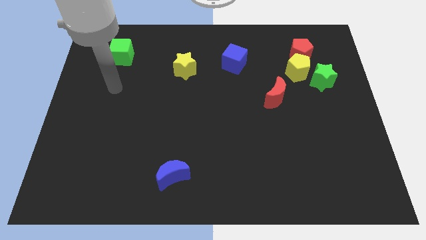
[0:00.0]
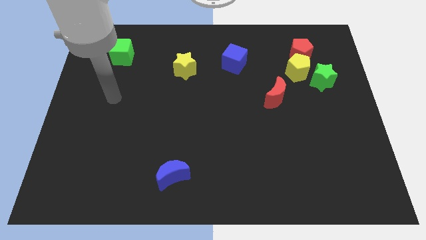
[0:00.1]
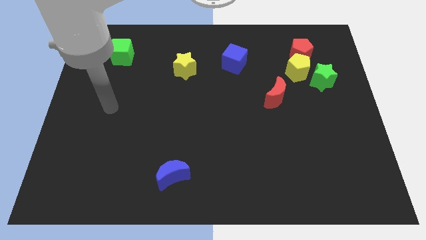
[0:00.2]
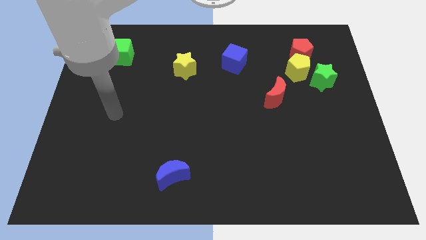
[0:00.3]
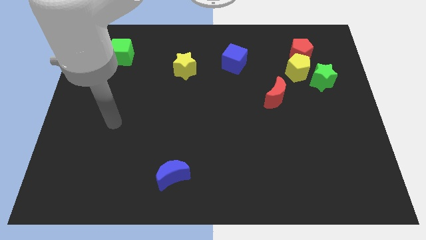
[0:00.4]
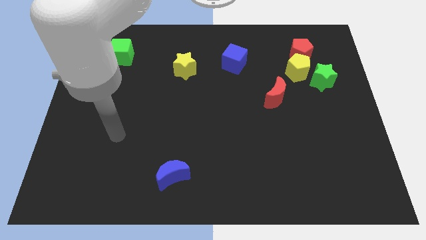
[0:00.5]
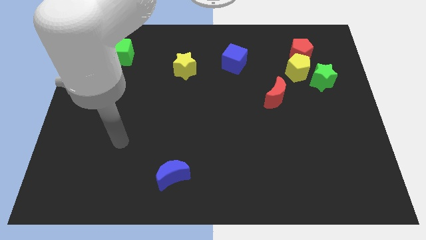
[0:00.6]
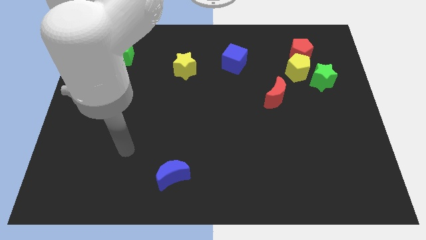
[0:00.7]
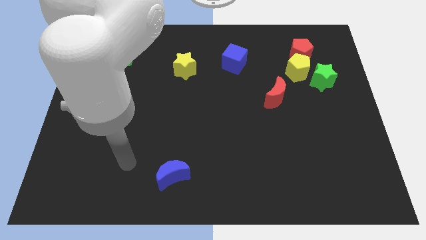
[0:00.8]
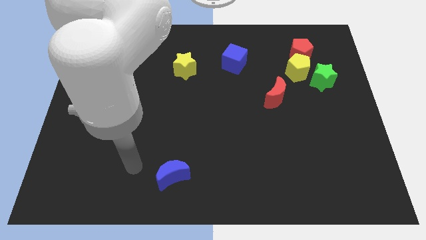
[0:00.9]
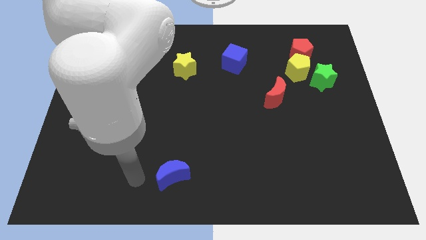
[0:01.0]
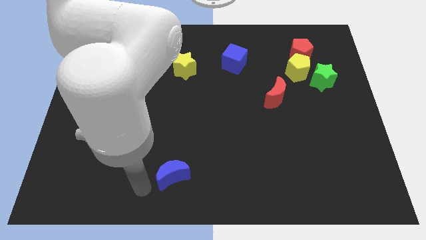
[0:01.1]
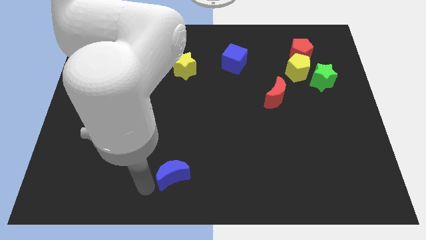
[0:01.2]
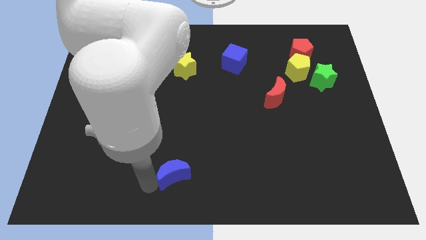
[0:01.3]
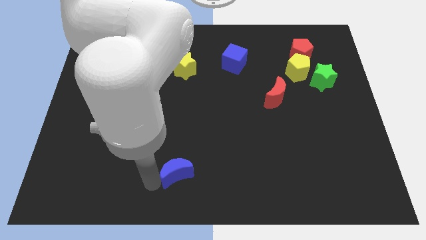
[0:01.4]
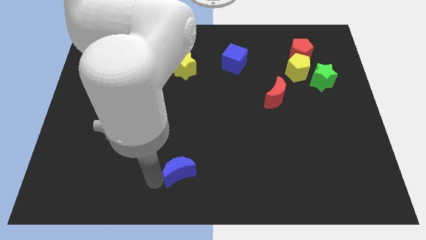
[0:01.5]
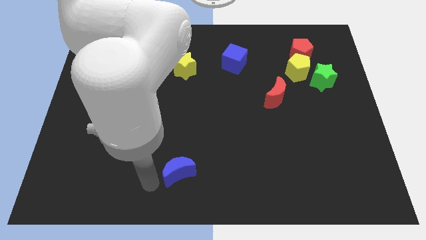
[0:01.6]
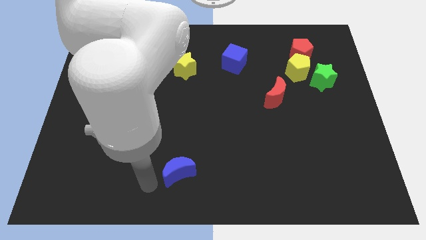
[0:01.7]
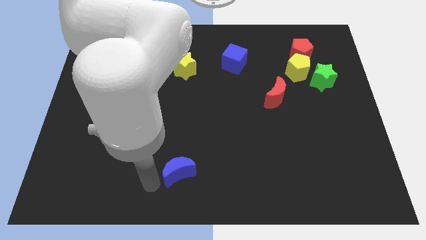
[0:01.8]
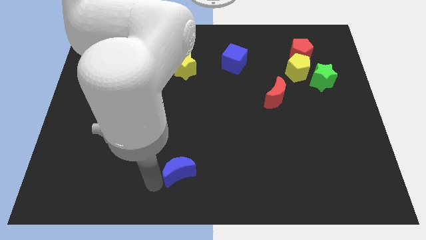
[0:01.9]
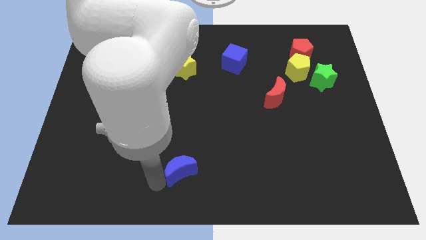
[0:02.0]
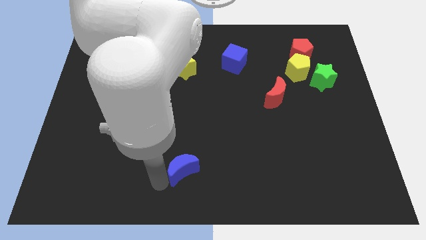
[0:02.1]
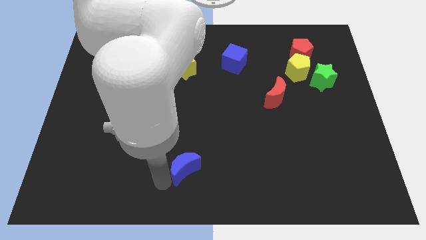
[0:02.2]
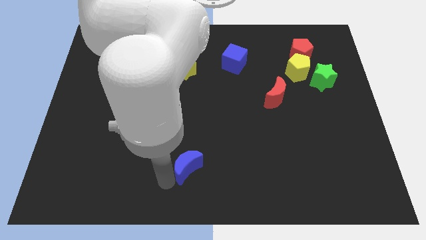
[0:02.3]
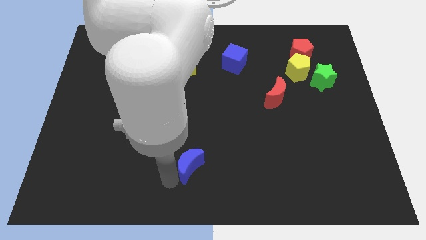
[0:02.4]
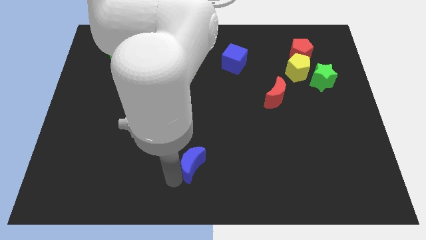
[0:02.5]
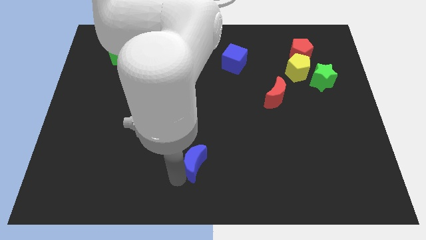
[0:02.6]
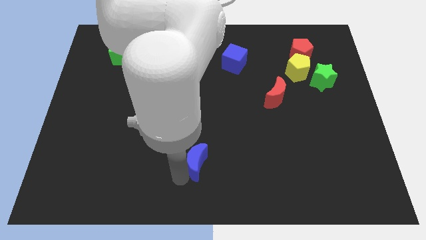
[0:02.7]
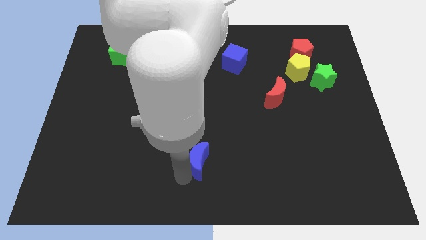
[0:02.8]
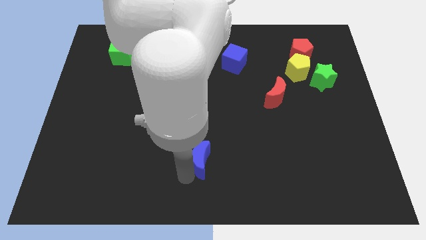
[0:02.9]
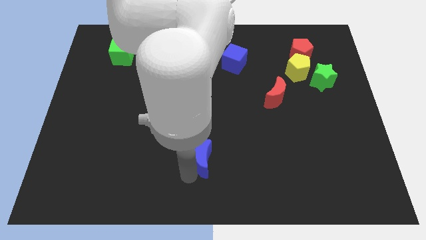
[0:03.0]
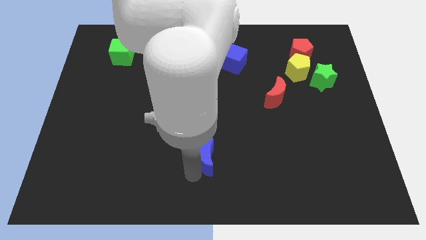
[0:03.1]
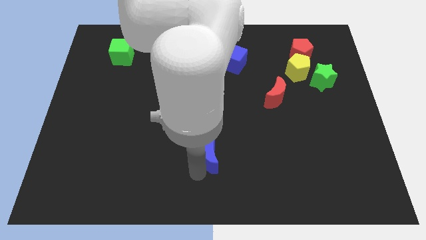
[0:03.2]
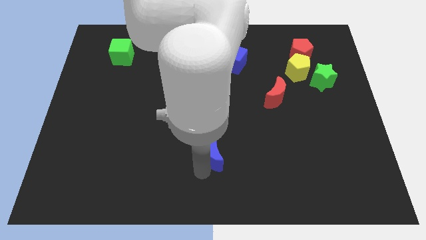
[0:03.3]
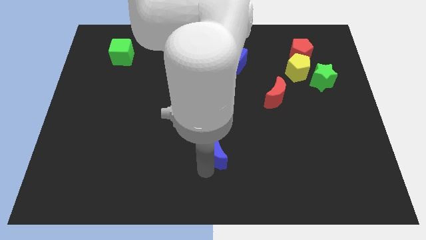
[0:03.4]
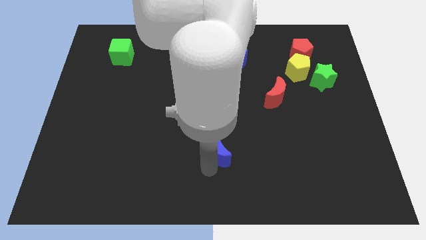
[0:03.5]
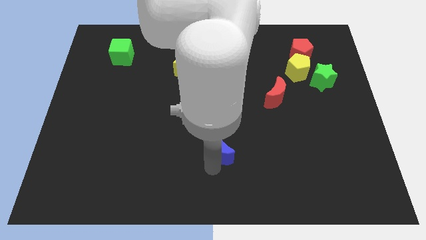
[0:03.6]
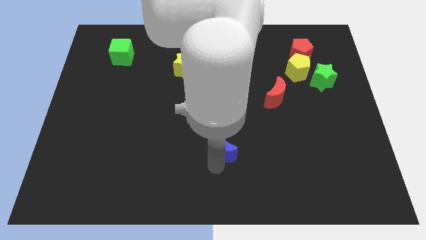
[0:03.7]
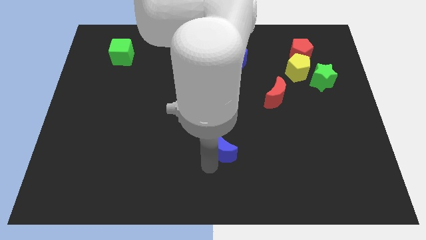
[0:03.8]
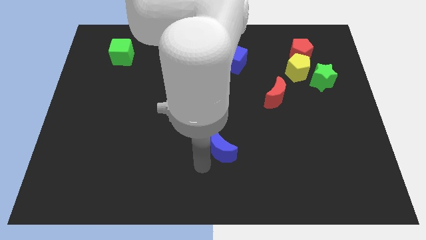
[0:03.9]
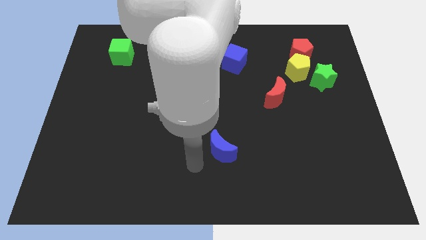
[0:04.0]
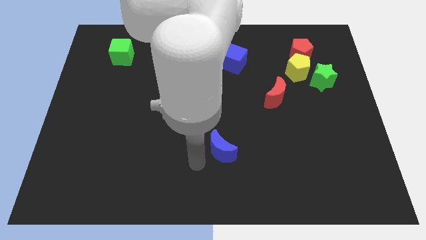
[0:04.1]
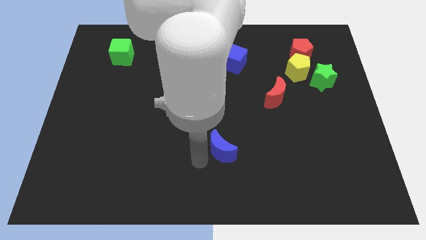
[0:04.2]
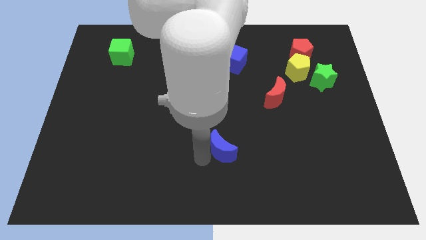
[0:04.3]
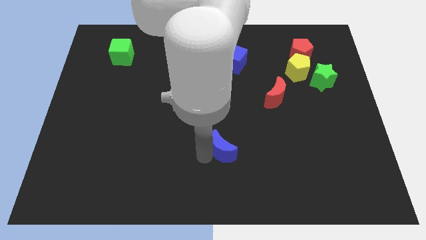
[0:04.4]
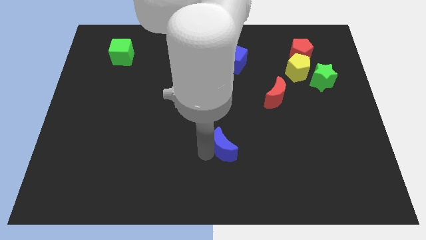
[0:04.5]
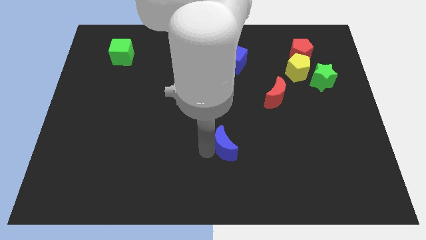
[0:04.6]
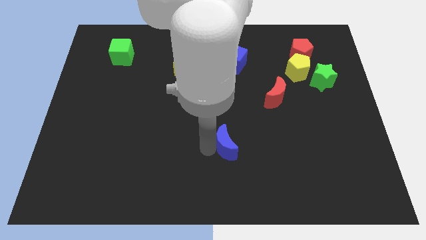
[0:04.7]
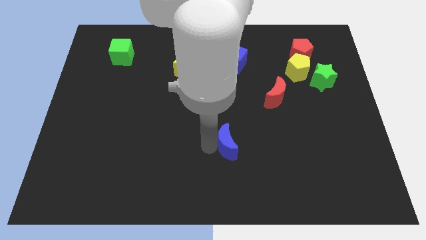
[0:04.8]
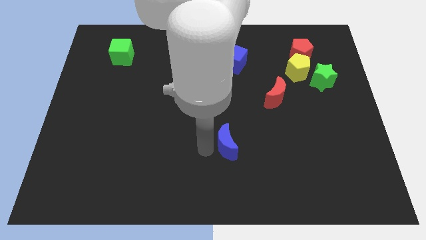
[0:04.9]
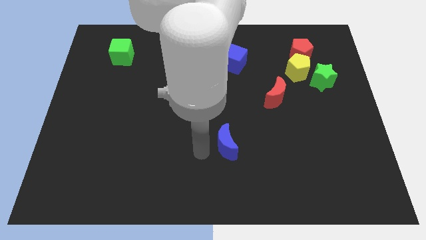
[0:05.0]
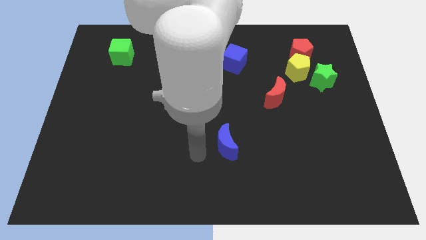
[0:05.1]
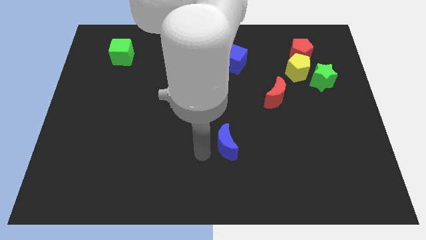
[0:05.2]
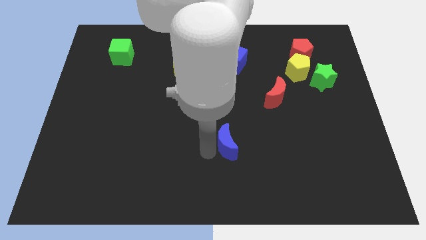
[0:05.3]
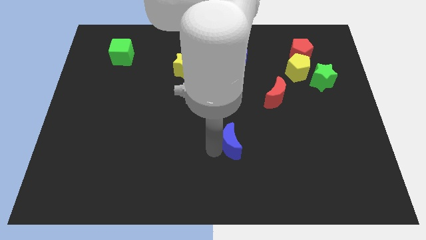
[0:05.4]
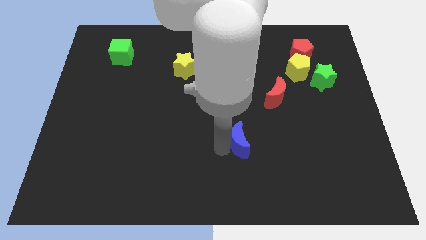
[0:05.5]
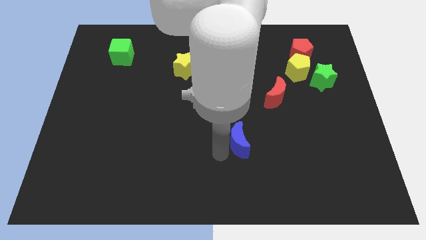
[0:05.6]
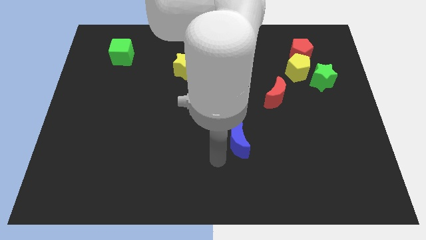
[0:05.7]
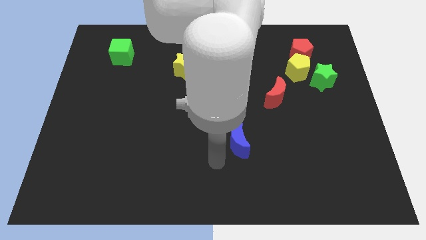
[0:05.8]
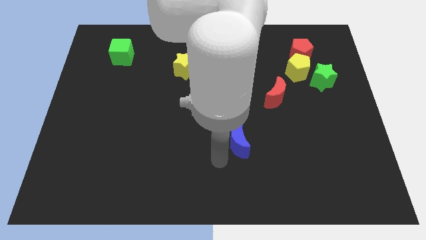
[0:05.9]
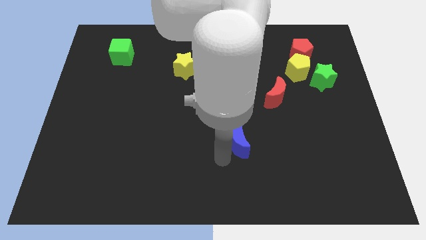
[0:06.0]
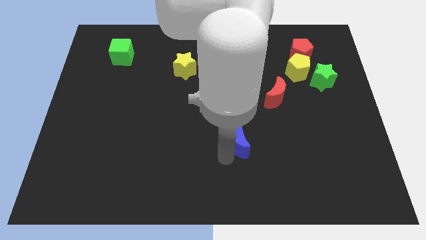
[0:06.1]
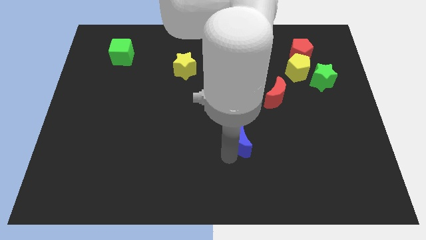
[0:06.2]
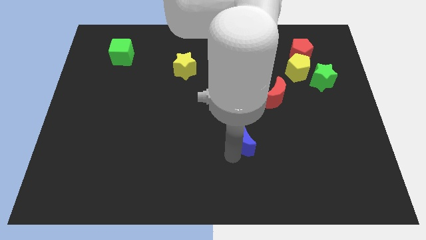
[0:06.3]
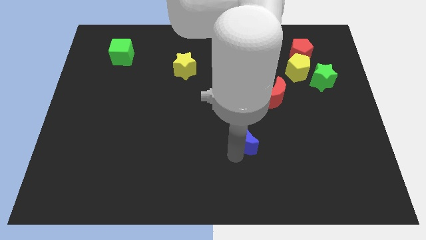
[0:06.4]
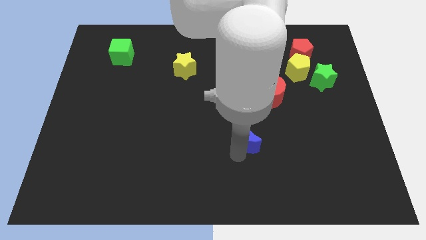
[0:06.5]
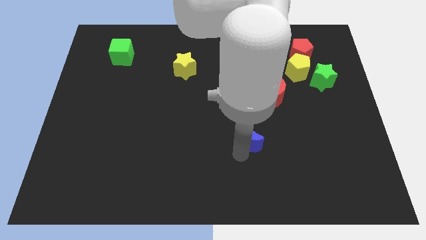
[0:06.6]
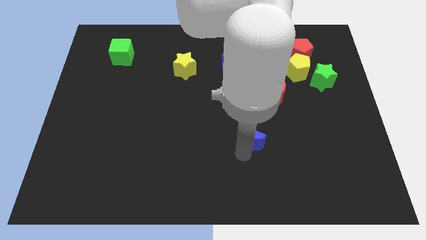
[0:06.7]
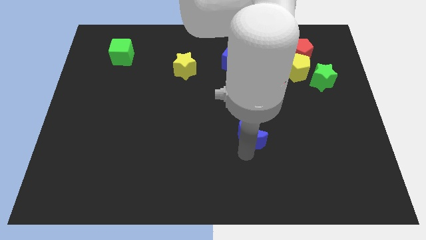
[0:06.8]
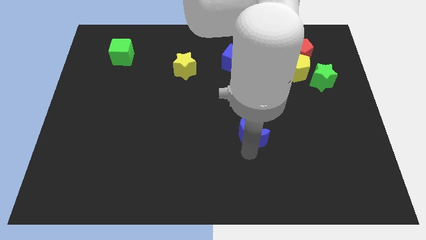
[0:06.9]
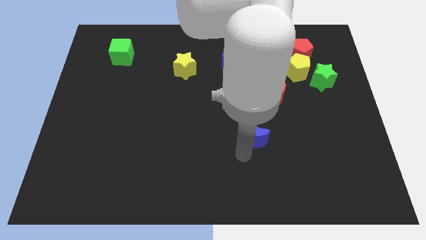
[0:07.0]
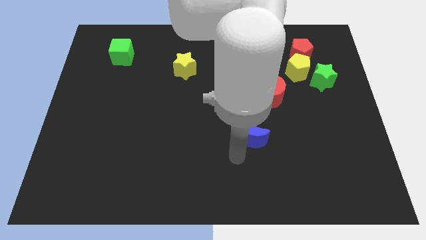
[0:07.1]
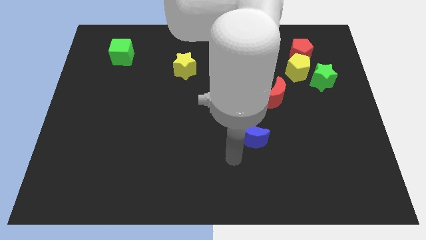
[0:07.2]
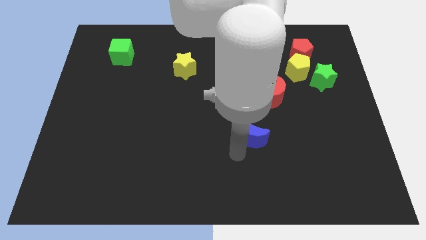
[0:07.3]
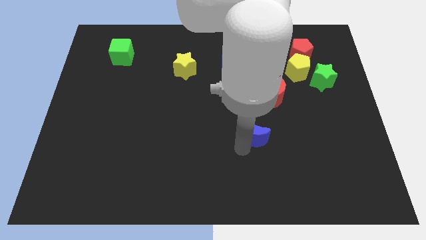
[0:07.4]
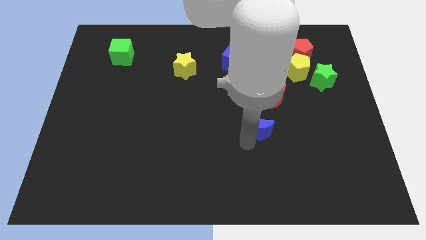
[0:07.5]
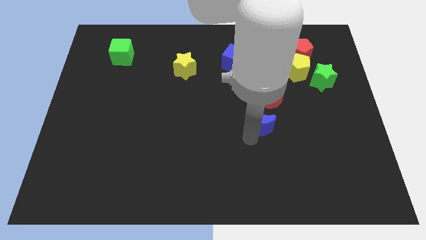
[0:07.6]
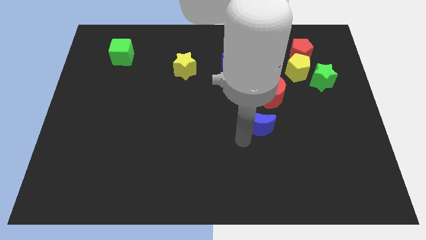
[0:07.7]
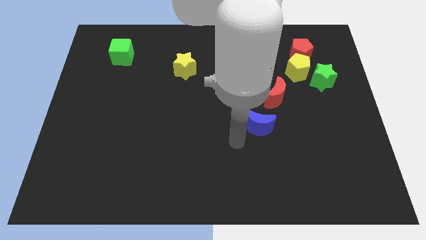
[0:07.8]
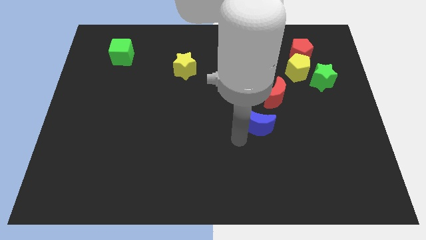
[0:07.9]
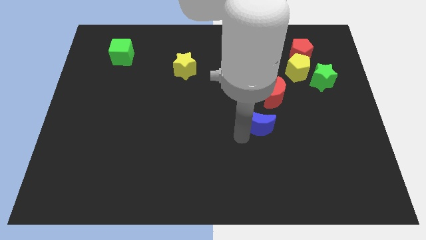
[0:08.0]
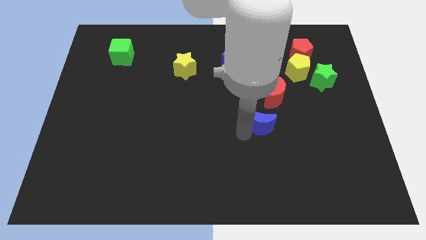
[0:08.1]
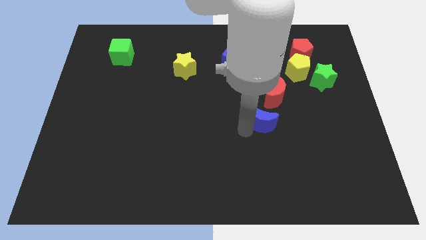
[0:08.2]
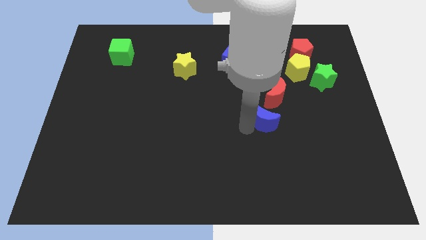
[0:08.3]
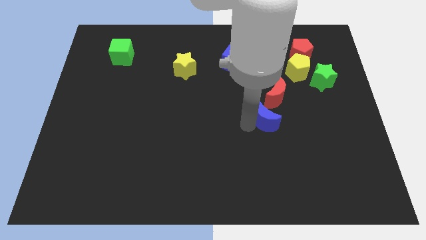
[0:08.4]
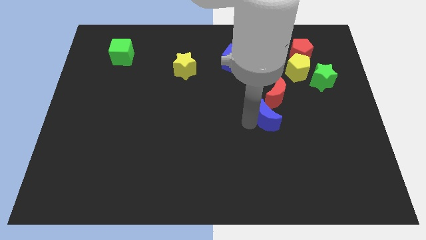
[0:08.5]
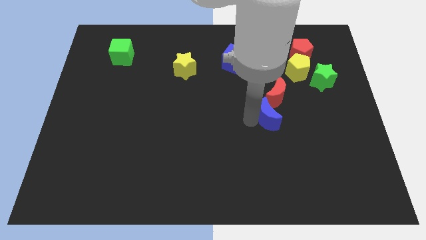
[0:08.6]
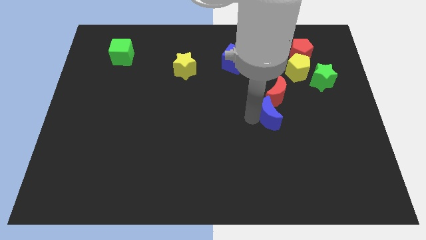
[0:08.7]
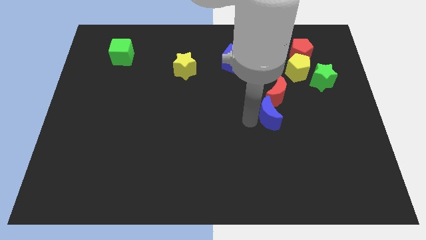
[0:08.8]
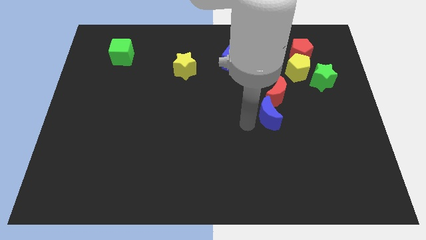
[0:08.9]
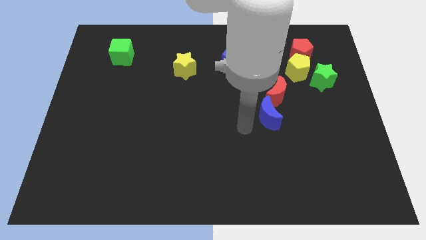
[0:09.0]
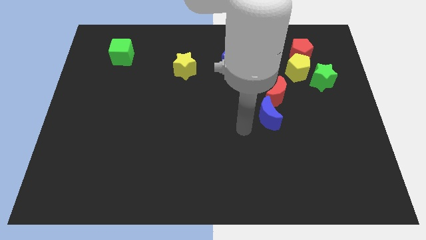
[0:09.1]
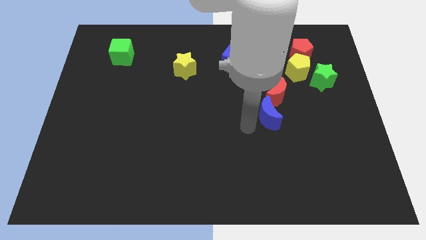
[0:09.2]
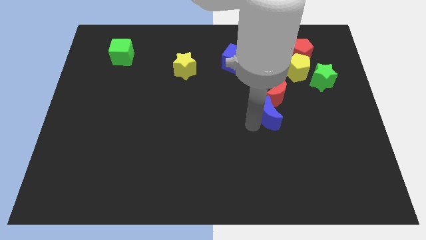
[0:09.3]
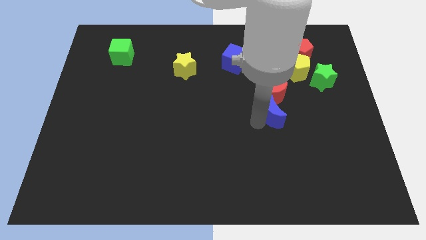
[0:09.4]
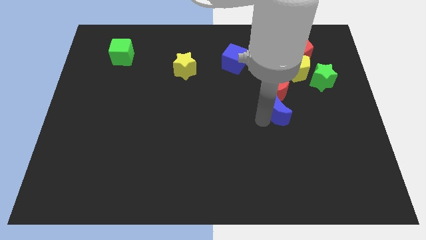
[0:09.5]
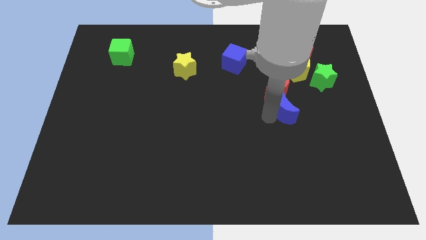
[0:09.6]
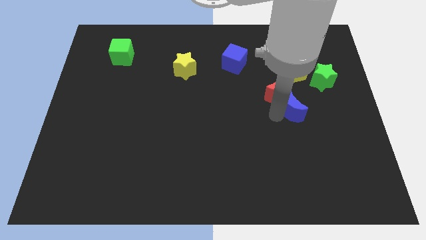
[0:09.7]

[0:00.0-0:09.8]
put the blue moon to the bottom of the yellow pentagon
